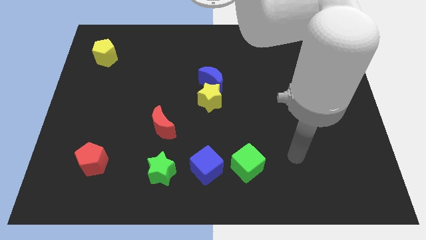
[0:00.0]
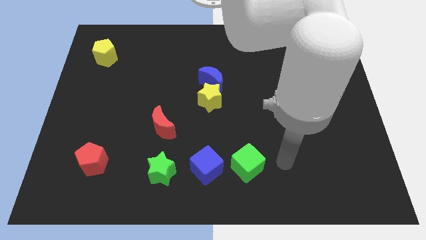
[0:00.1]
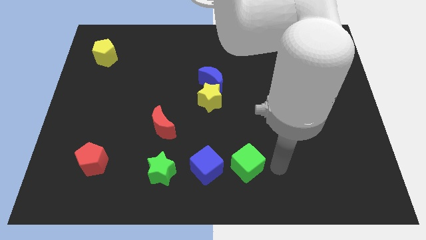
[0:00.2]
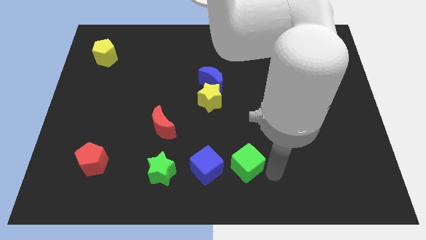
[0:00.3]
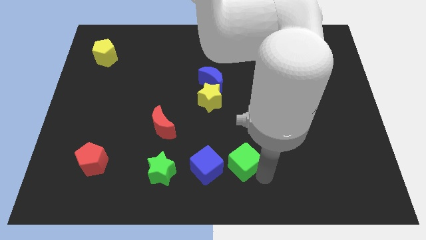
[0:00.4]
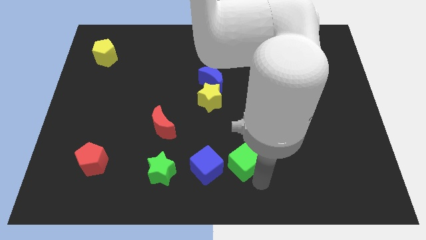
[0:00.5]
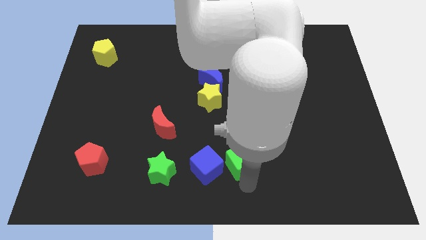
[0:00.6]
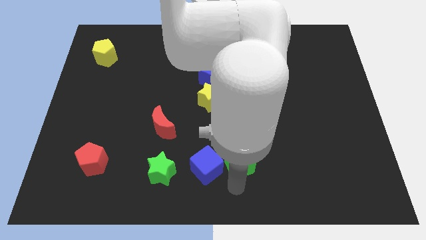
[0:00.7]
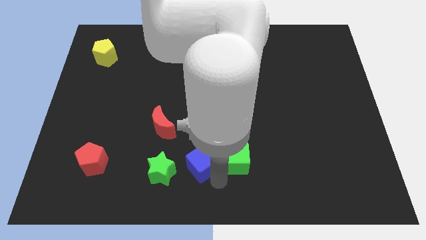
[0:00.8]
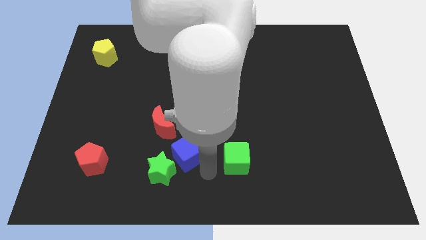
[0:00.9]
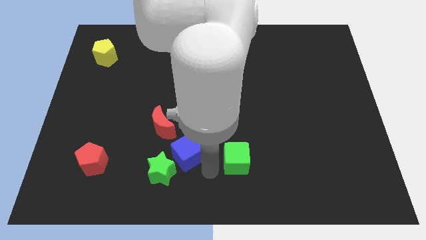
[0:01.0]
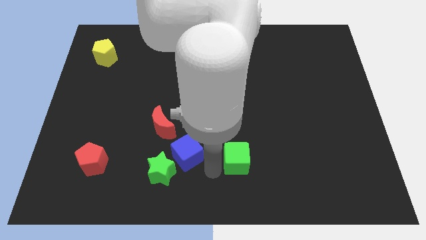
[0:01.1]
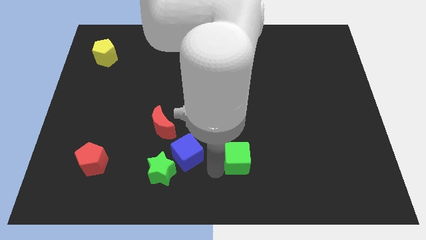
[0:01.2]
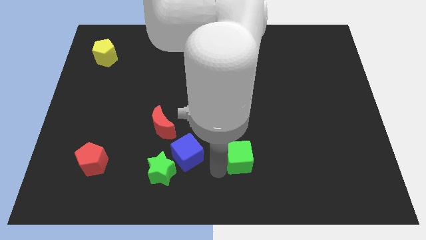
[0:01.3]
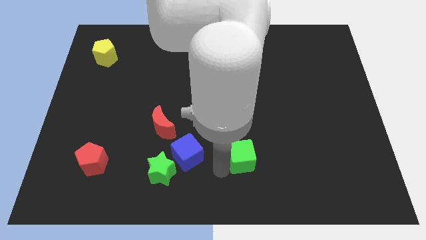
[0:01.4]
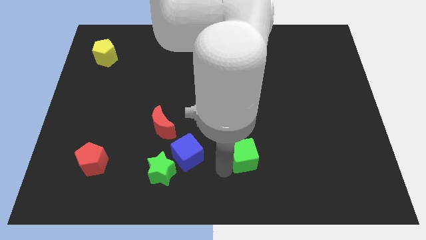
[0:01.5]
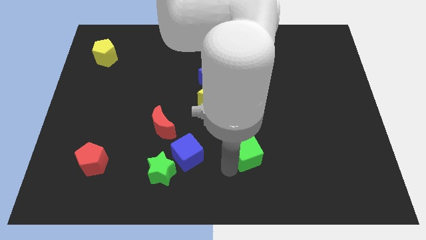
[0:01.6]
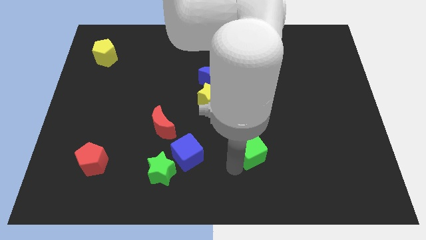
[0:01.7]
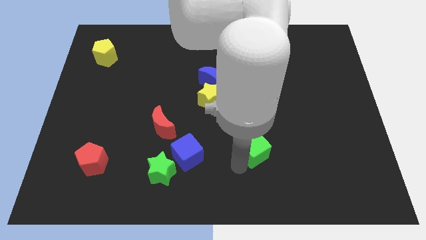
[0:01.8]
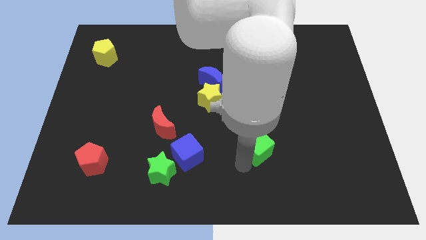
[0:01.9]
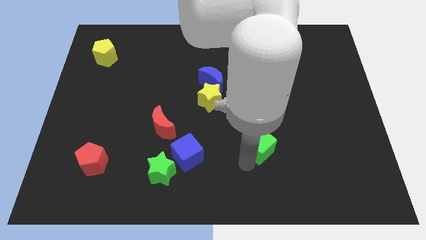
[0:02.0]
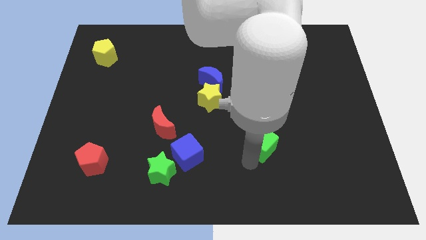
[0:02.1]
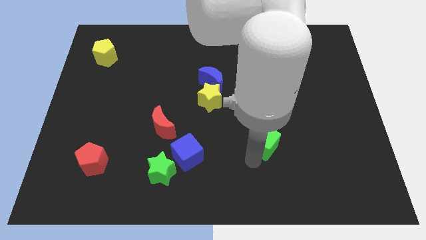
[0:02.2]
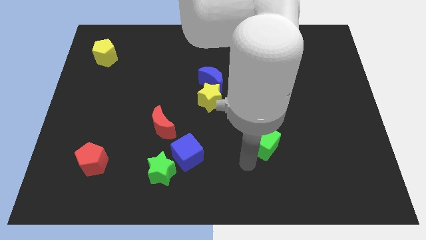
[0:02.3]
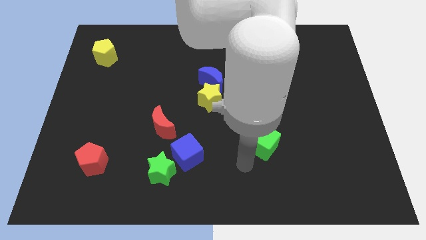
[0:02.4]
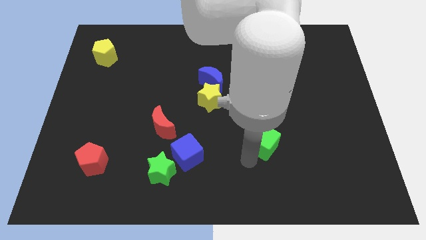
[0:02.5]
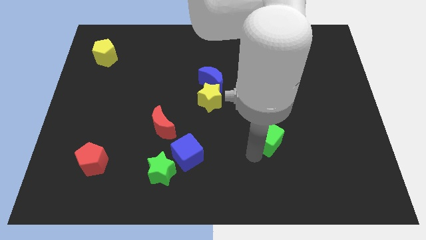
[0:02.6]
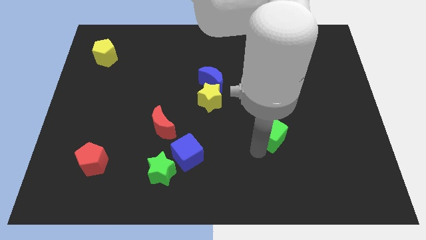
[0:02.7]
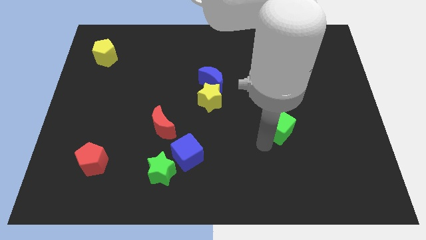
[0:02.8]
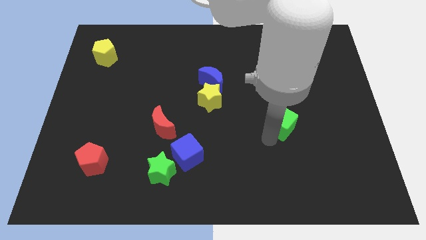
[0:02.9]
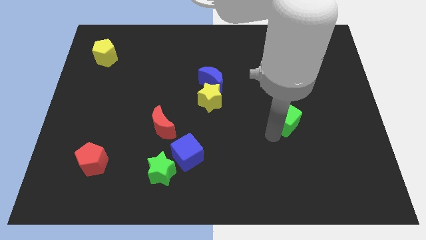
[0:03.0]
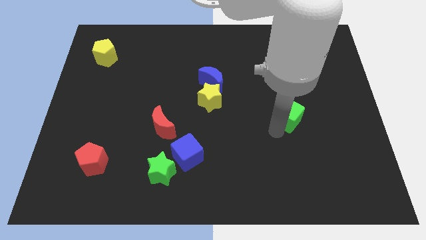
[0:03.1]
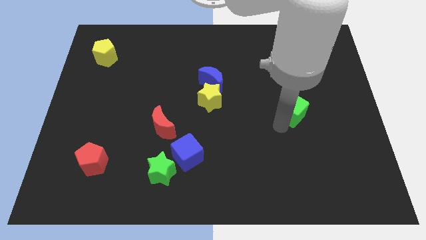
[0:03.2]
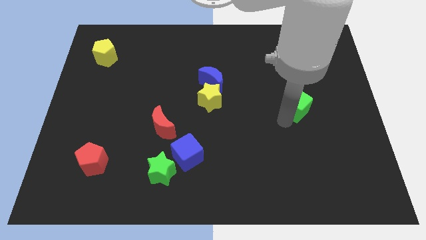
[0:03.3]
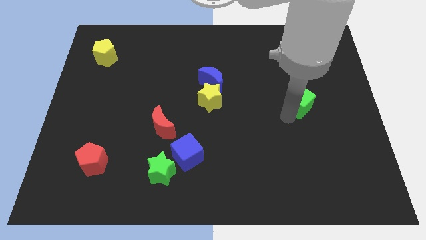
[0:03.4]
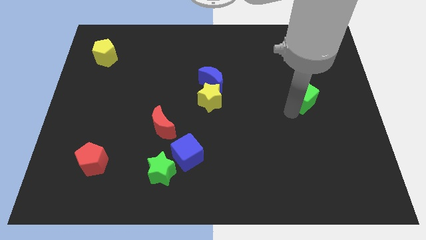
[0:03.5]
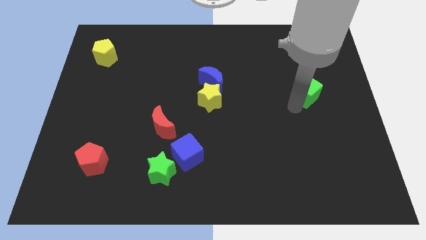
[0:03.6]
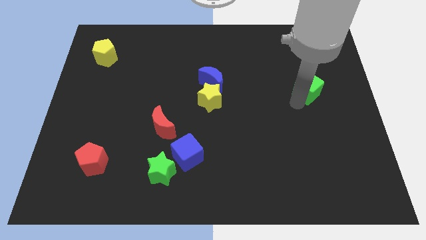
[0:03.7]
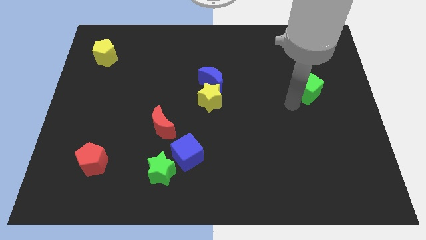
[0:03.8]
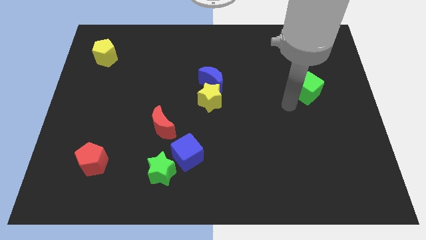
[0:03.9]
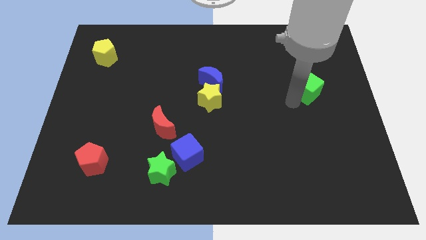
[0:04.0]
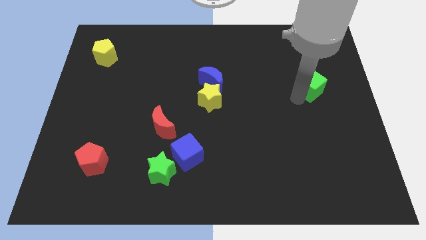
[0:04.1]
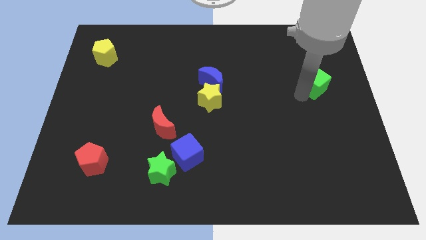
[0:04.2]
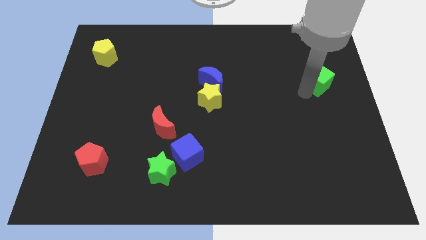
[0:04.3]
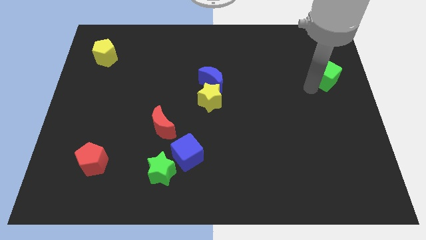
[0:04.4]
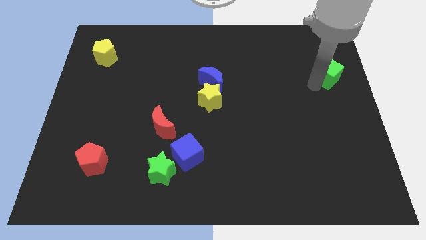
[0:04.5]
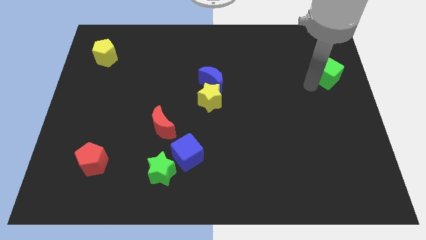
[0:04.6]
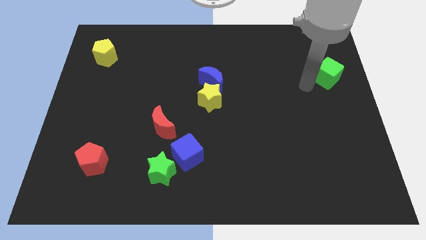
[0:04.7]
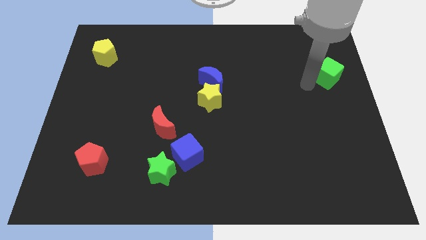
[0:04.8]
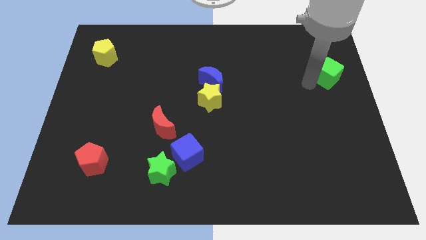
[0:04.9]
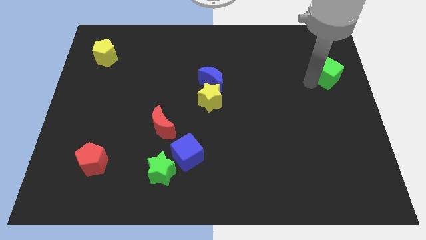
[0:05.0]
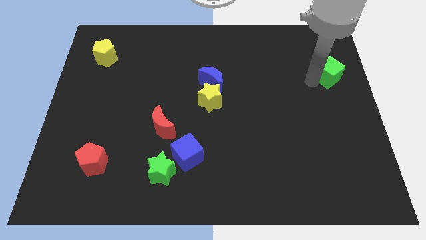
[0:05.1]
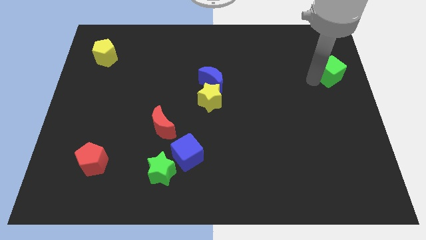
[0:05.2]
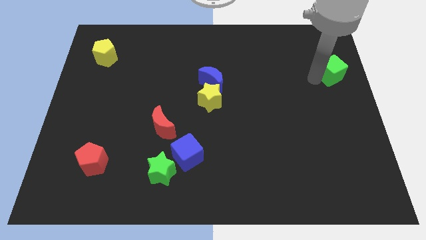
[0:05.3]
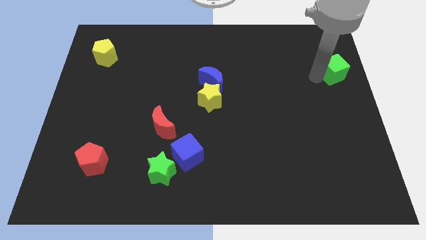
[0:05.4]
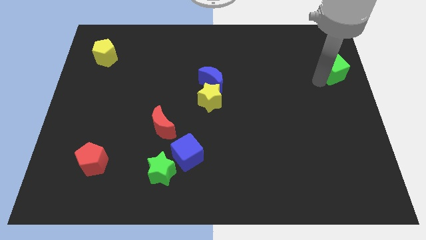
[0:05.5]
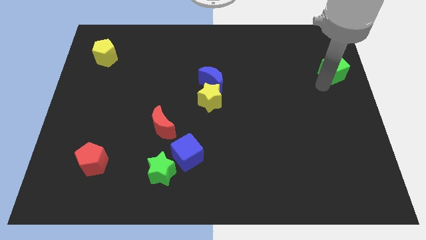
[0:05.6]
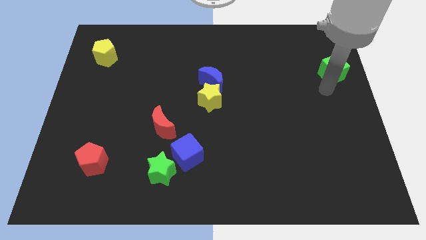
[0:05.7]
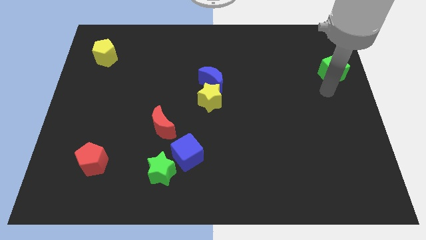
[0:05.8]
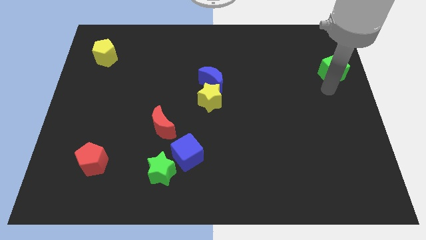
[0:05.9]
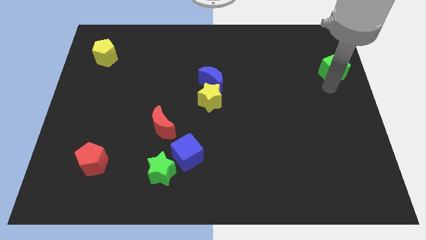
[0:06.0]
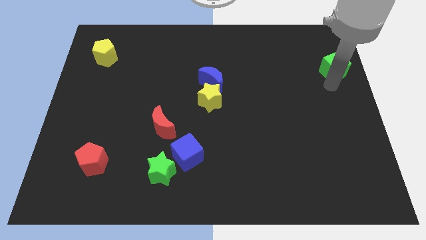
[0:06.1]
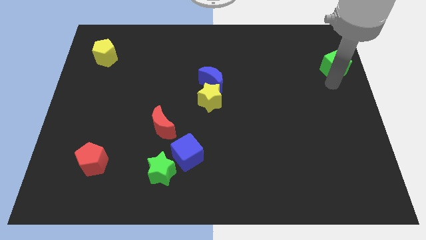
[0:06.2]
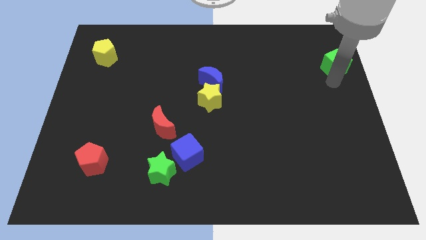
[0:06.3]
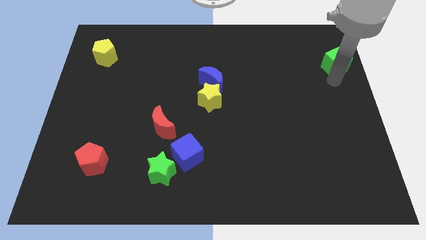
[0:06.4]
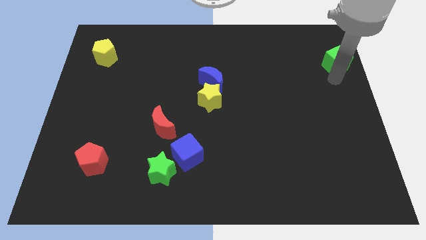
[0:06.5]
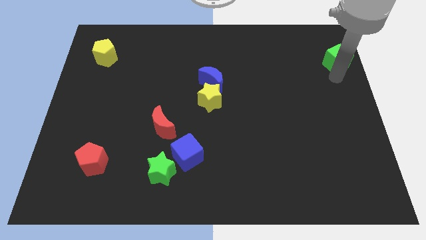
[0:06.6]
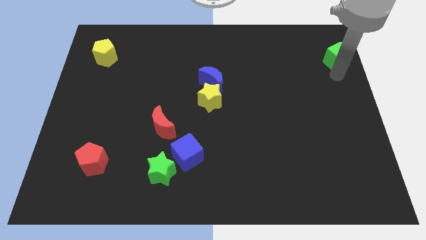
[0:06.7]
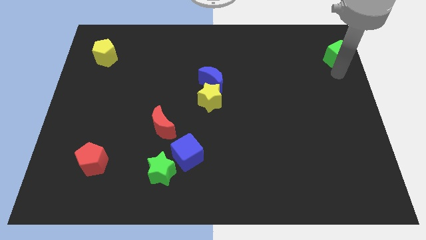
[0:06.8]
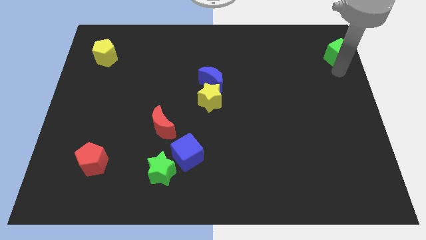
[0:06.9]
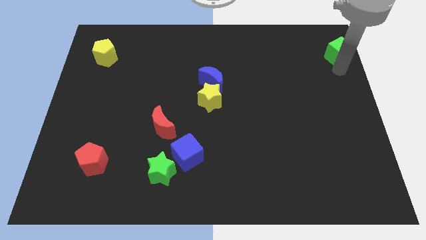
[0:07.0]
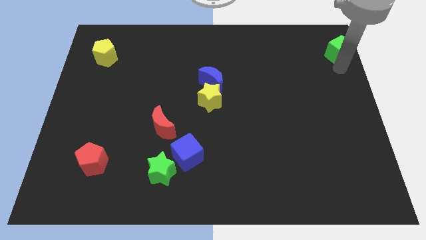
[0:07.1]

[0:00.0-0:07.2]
put the green cube to the top right
